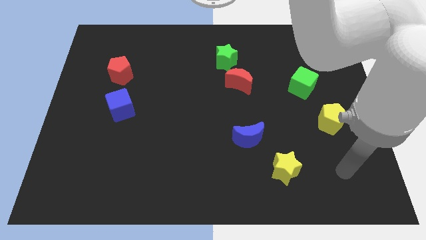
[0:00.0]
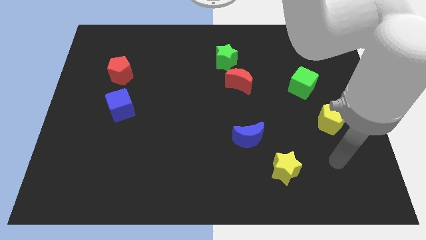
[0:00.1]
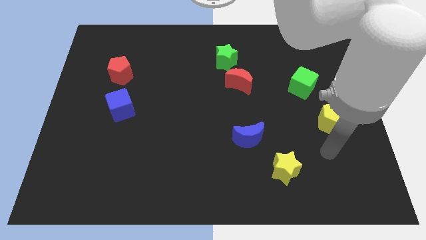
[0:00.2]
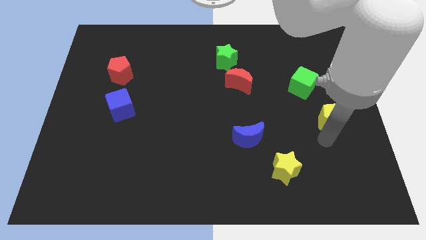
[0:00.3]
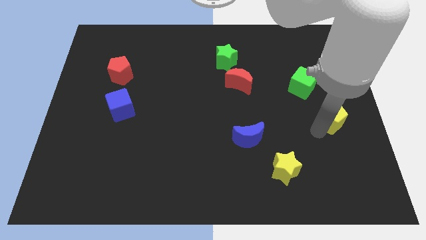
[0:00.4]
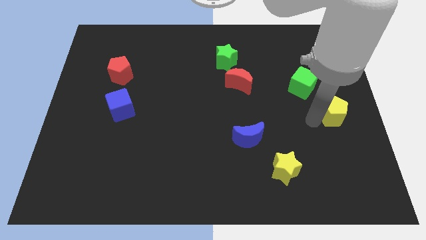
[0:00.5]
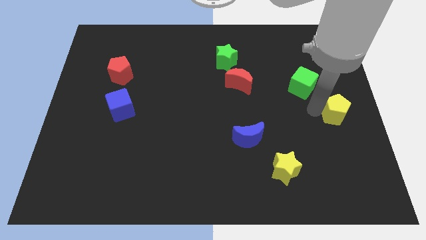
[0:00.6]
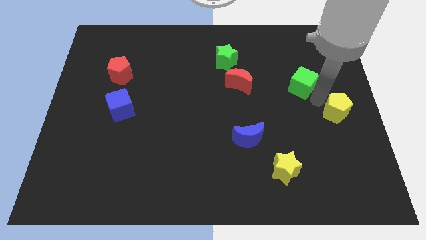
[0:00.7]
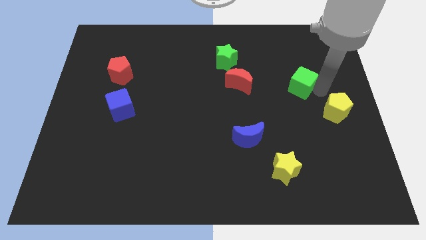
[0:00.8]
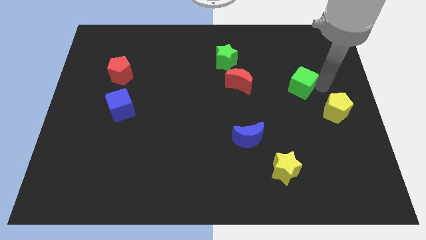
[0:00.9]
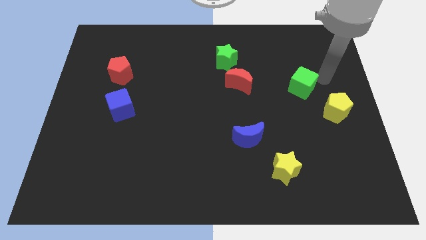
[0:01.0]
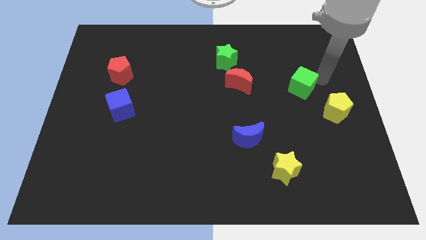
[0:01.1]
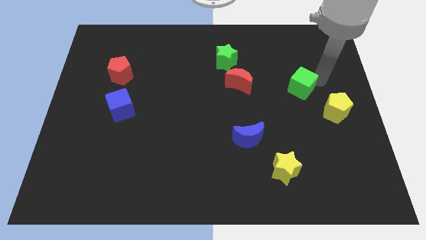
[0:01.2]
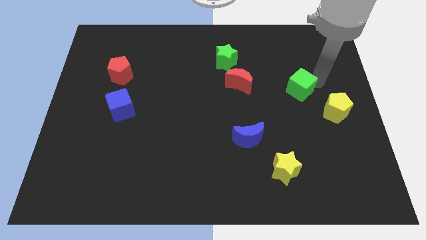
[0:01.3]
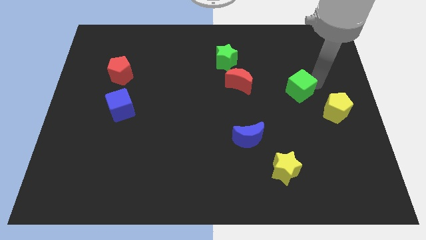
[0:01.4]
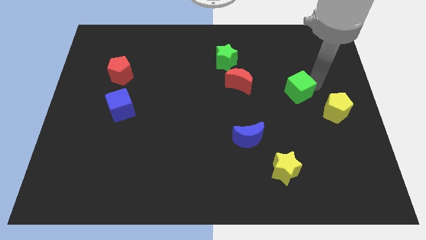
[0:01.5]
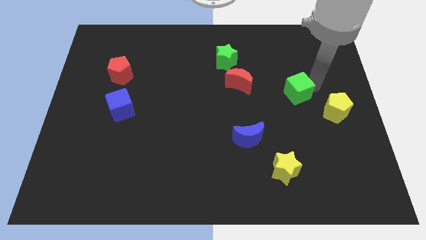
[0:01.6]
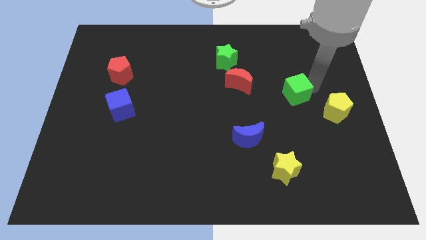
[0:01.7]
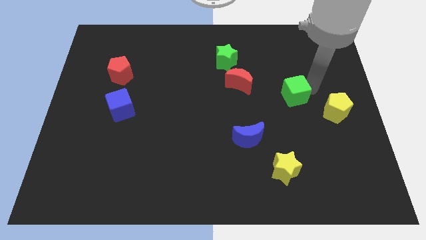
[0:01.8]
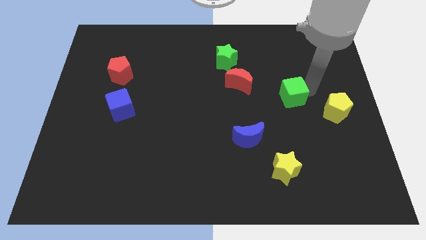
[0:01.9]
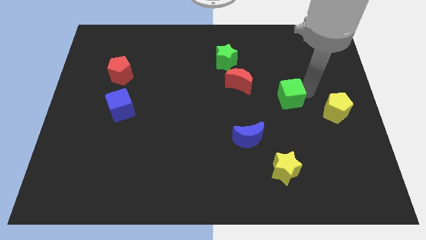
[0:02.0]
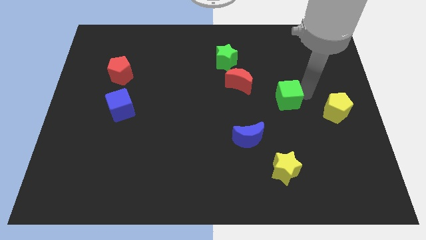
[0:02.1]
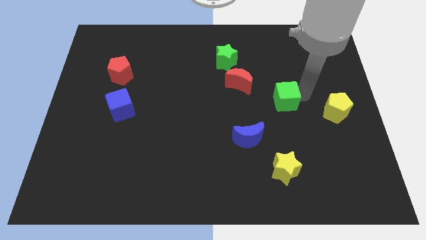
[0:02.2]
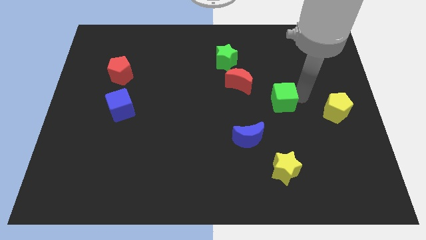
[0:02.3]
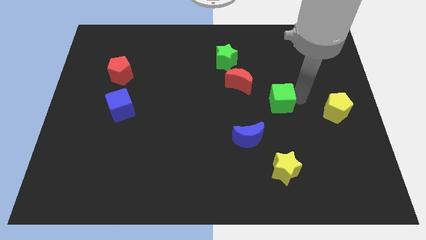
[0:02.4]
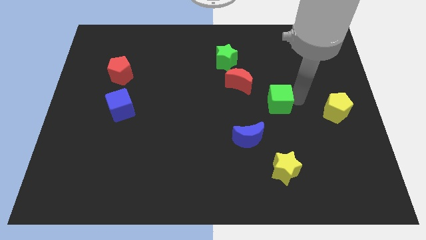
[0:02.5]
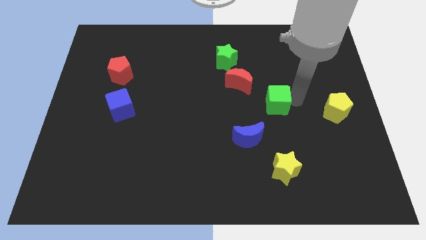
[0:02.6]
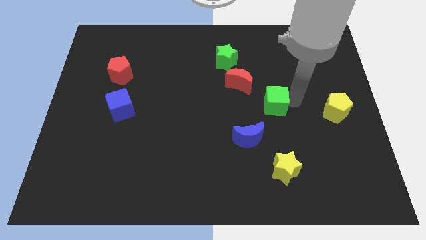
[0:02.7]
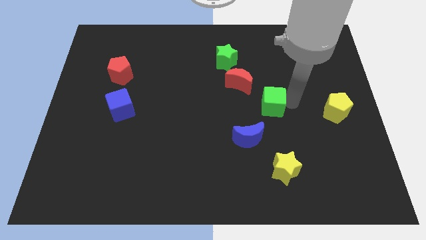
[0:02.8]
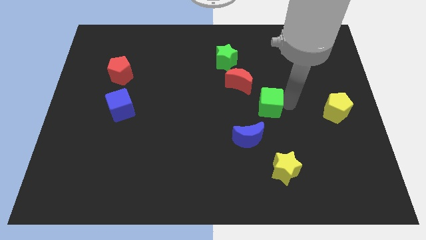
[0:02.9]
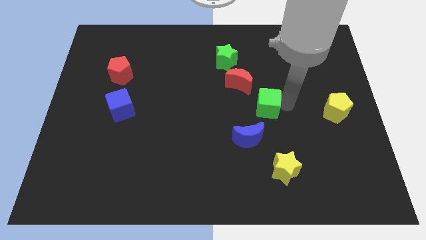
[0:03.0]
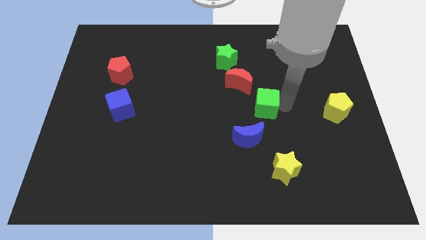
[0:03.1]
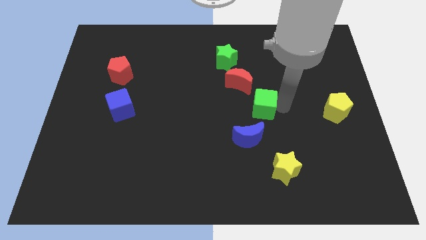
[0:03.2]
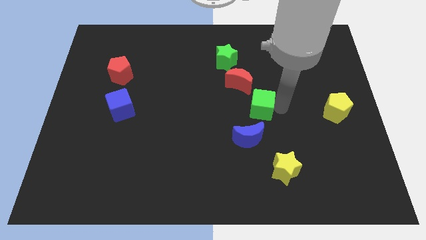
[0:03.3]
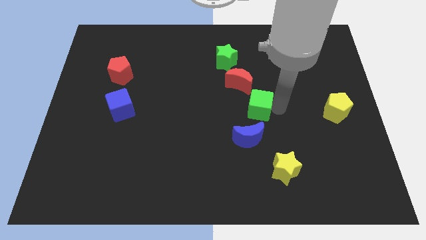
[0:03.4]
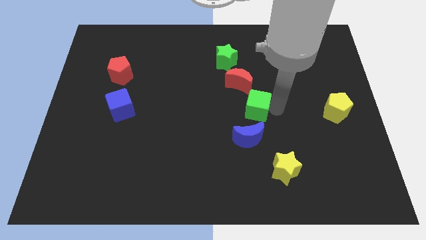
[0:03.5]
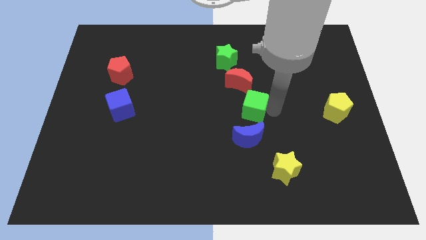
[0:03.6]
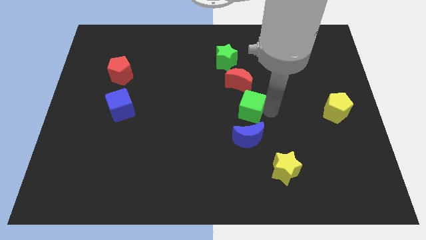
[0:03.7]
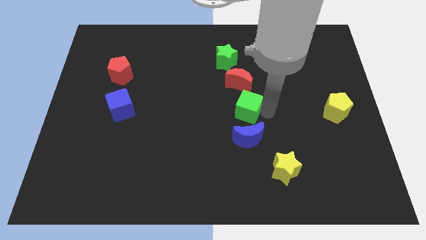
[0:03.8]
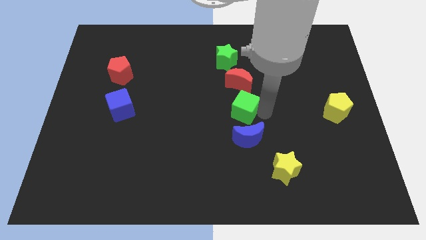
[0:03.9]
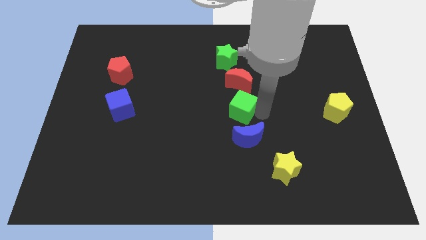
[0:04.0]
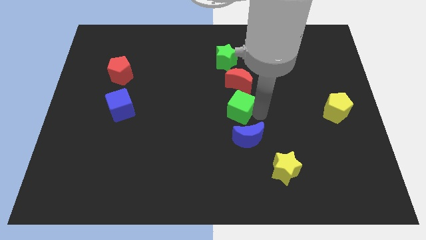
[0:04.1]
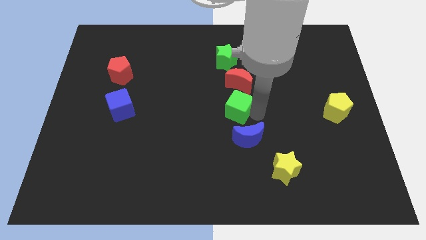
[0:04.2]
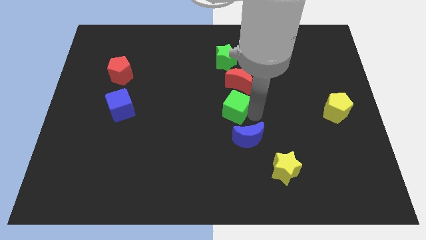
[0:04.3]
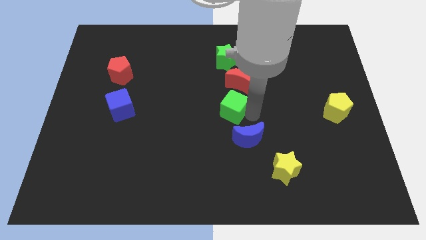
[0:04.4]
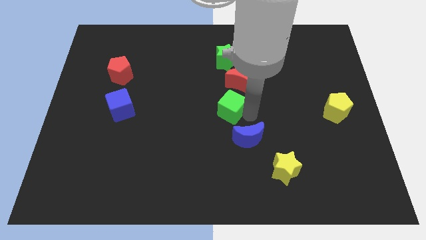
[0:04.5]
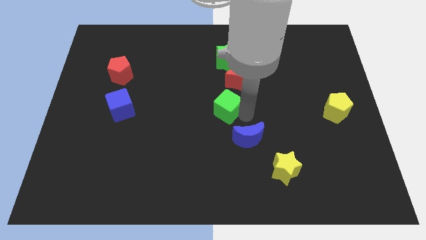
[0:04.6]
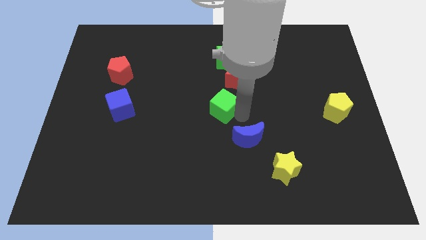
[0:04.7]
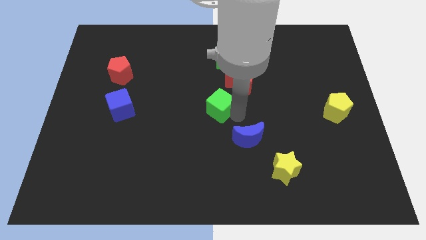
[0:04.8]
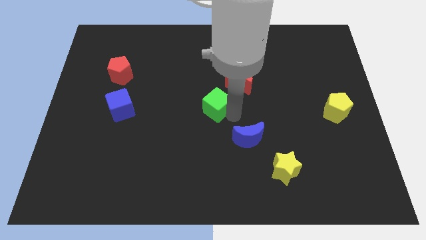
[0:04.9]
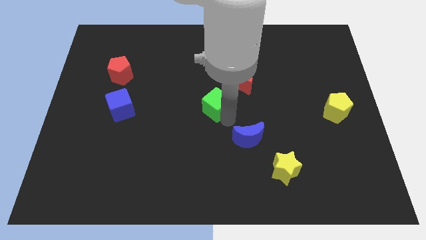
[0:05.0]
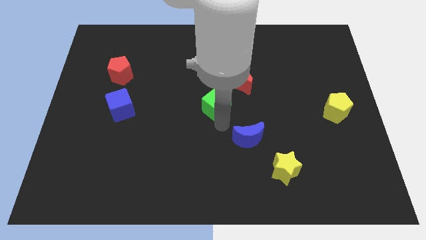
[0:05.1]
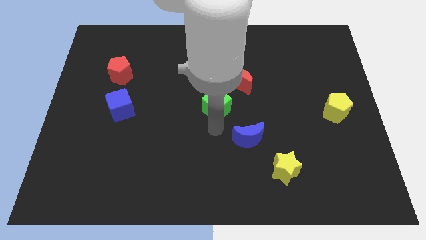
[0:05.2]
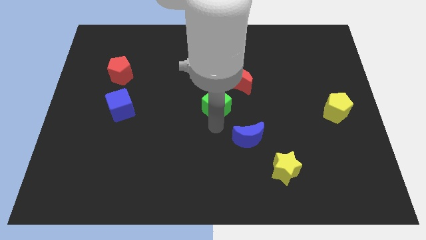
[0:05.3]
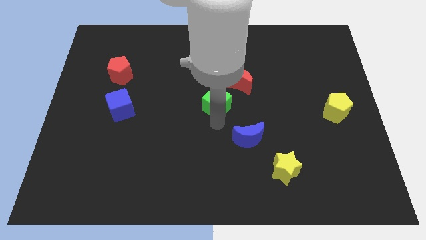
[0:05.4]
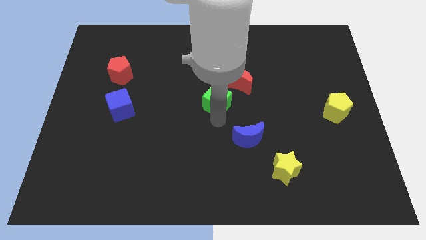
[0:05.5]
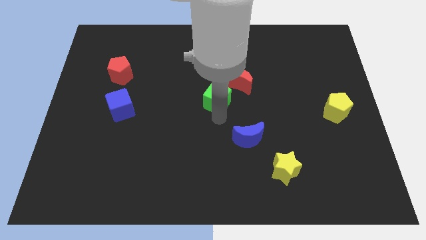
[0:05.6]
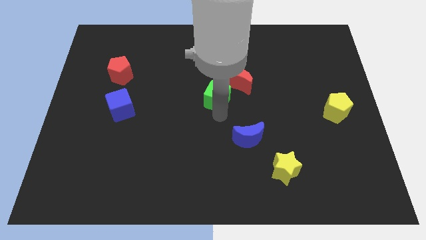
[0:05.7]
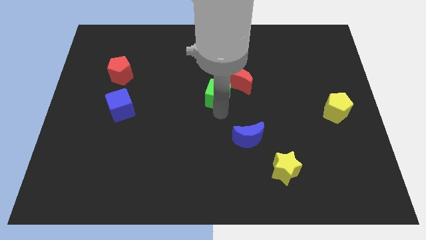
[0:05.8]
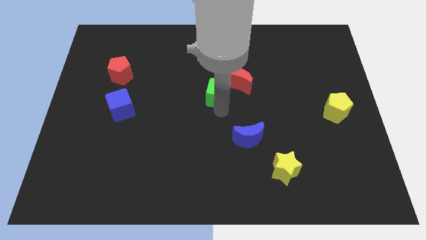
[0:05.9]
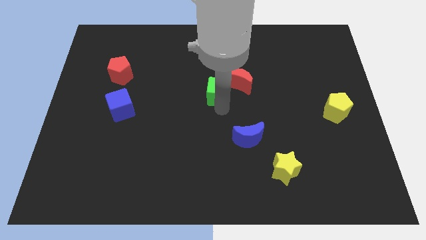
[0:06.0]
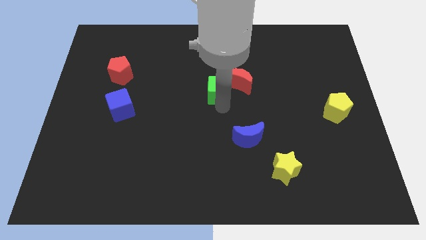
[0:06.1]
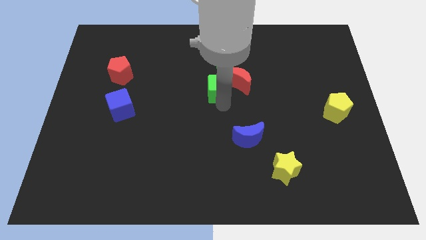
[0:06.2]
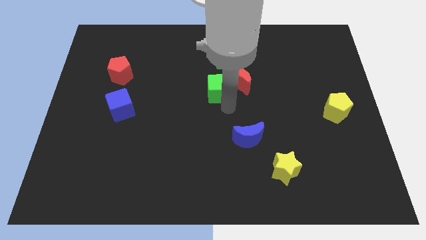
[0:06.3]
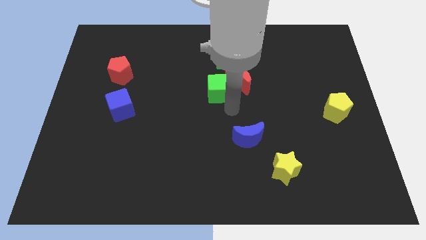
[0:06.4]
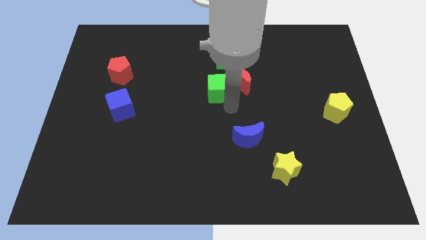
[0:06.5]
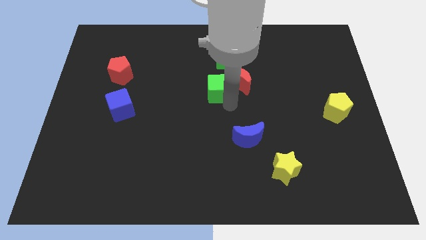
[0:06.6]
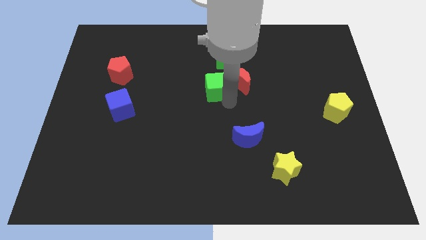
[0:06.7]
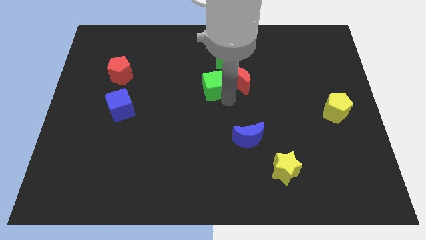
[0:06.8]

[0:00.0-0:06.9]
push the green cube to the bottom left of the green star
